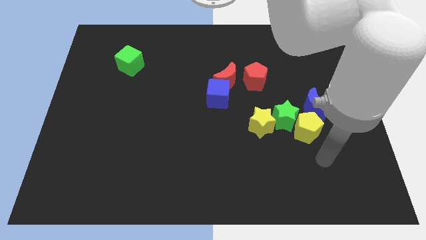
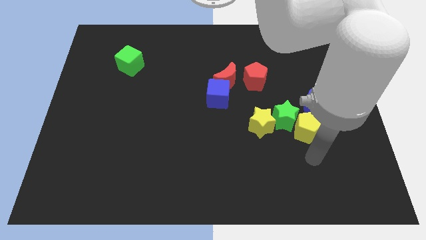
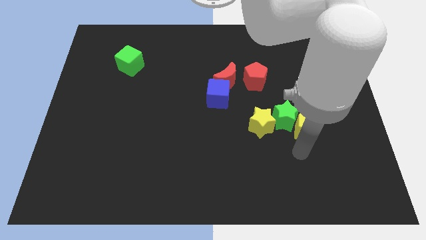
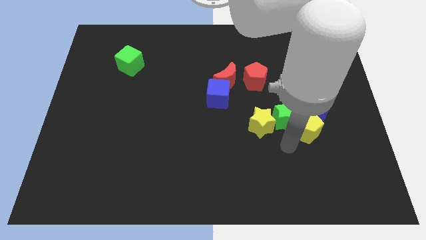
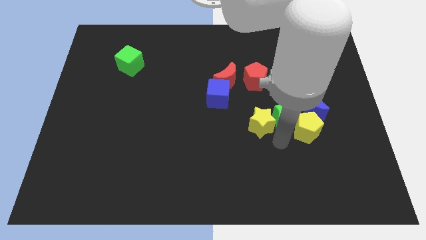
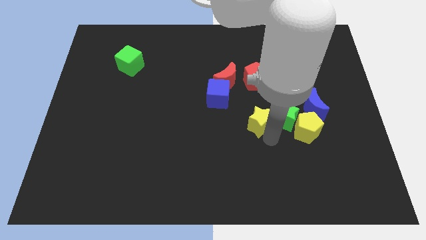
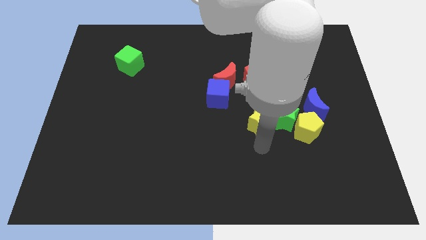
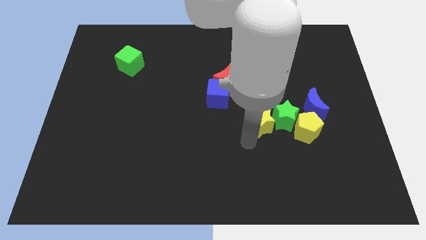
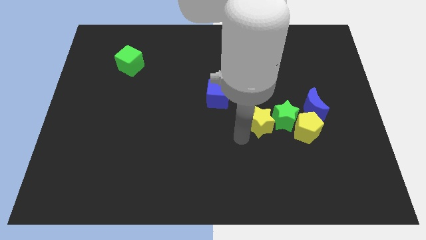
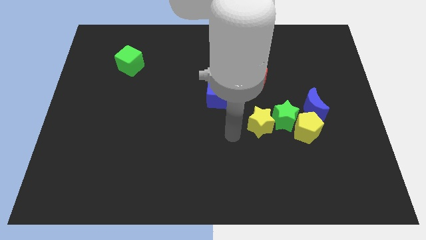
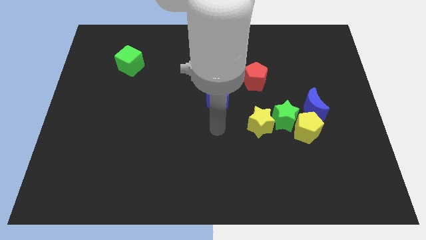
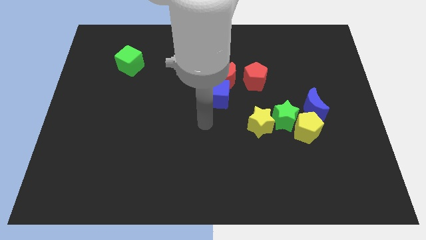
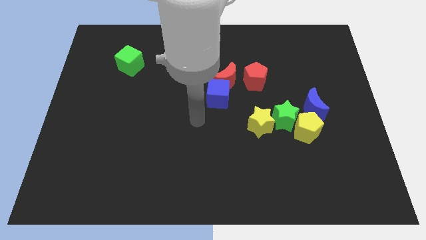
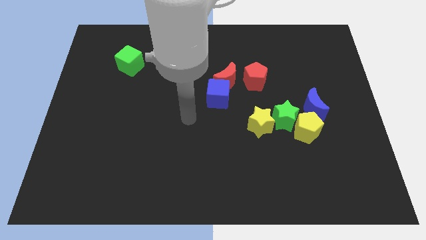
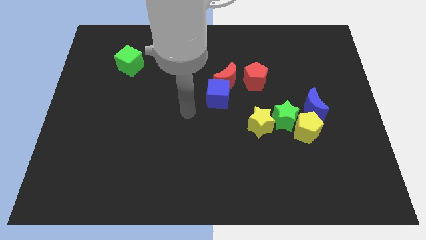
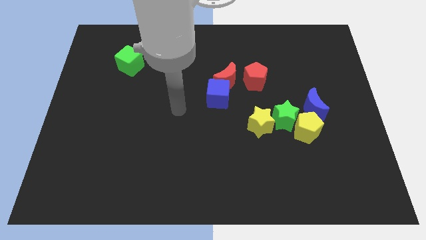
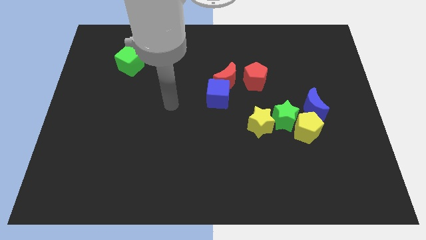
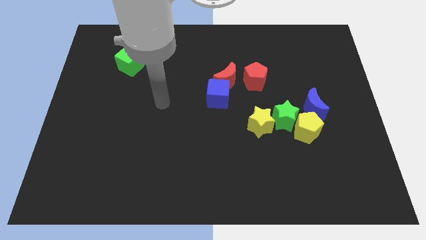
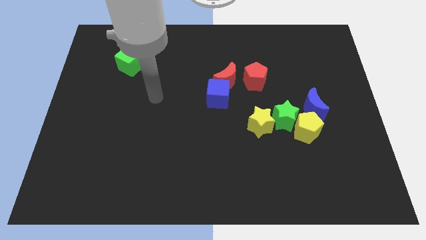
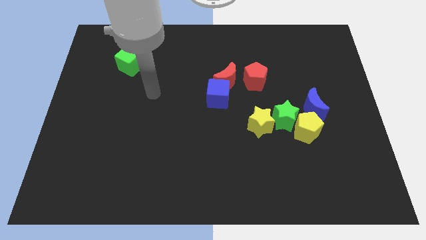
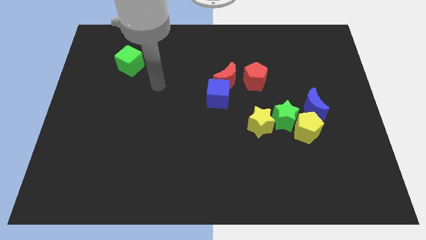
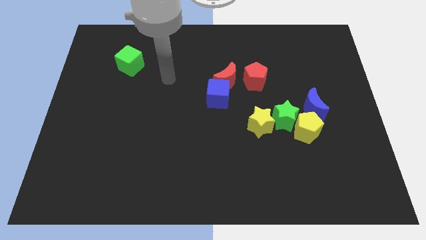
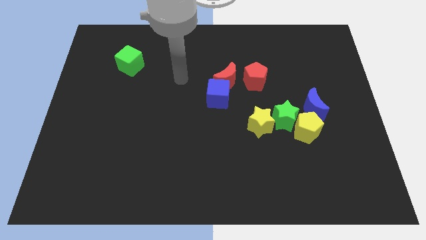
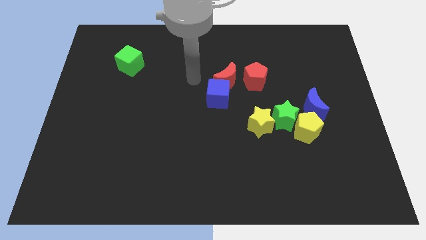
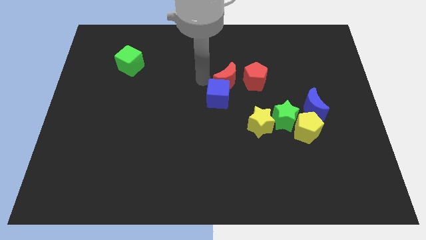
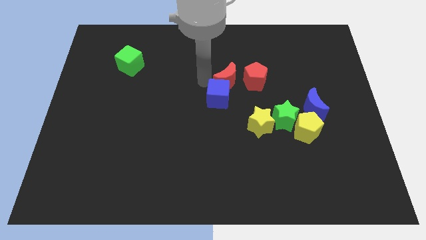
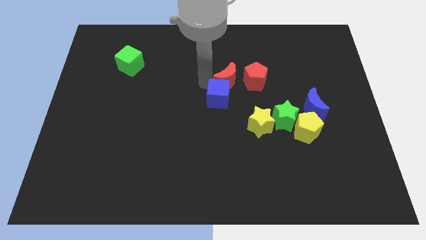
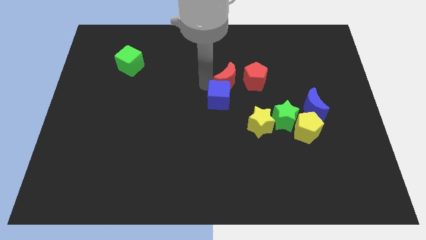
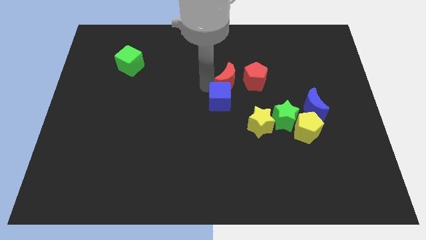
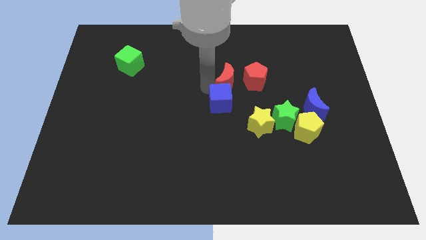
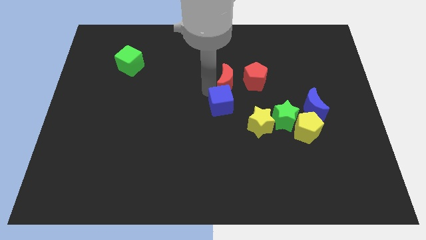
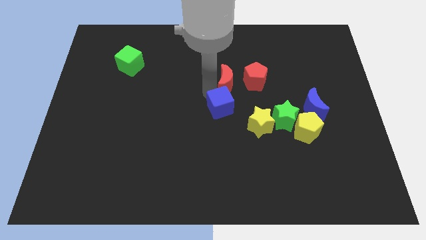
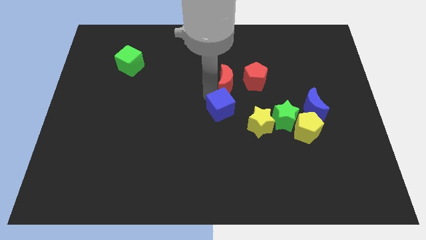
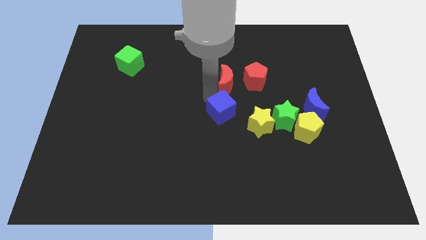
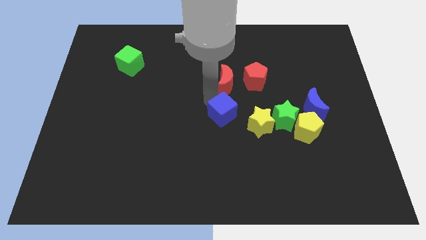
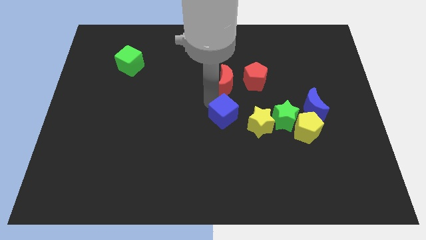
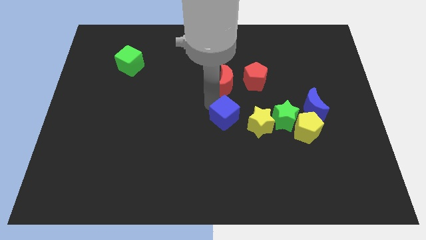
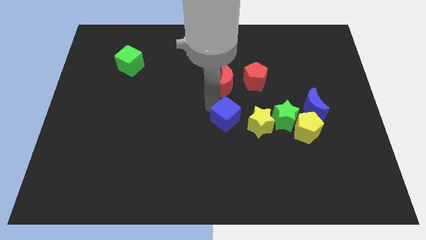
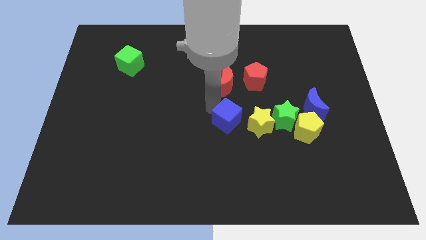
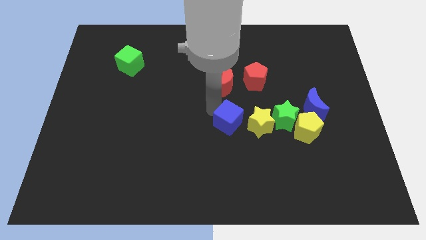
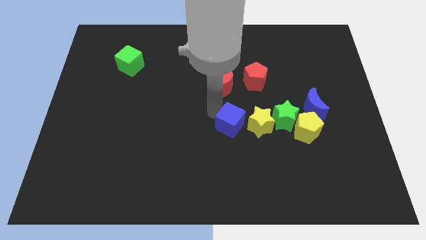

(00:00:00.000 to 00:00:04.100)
move the blue cube downwards and to the right a little bit

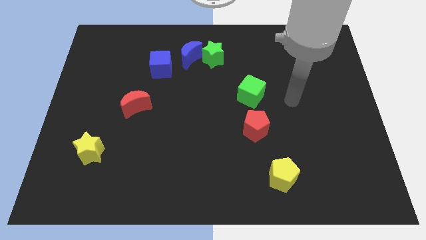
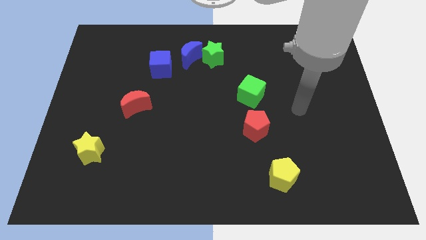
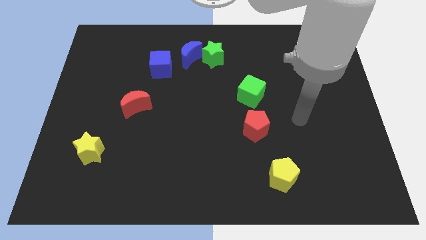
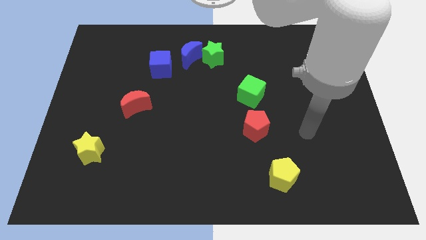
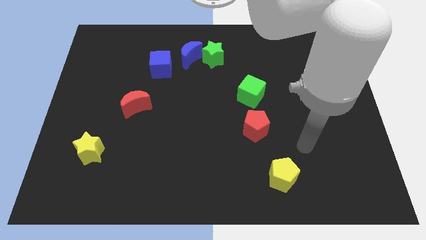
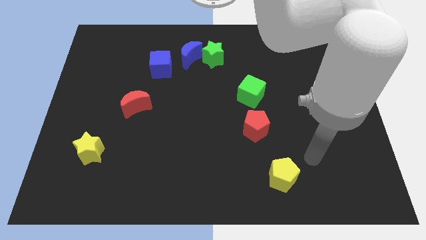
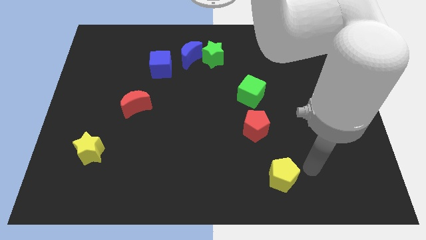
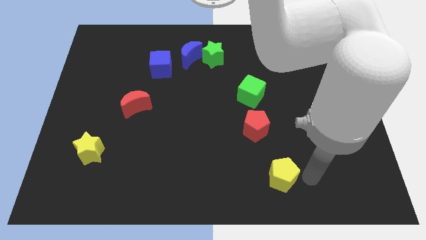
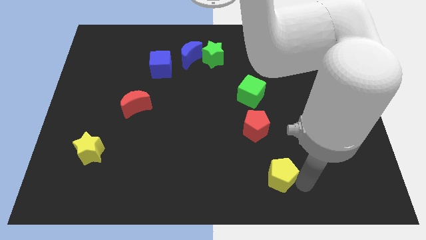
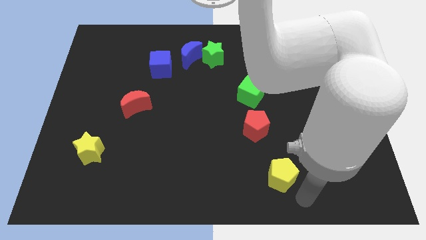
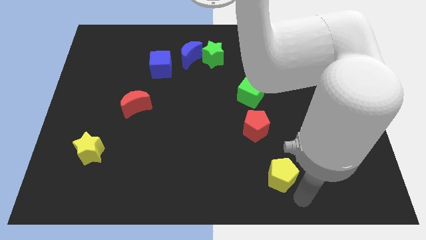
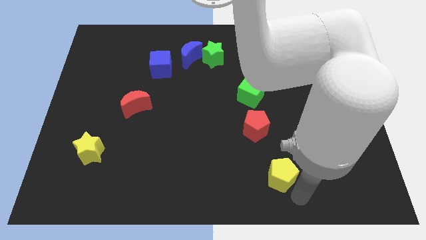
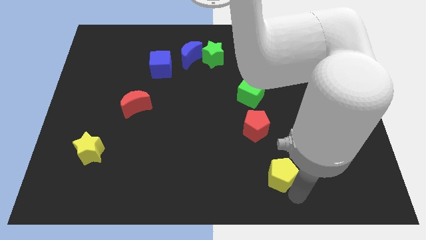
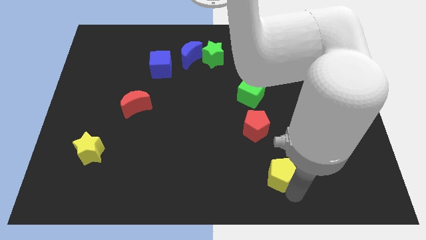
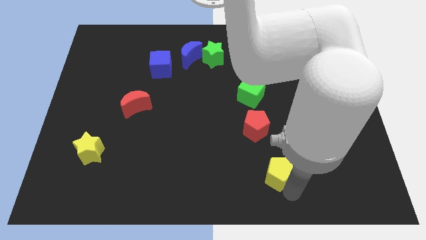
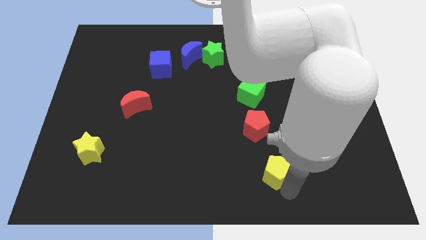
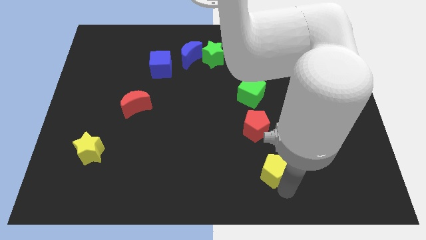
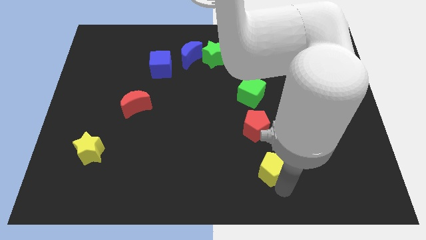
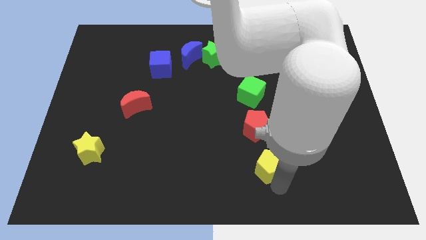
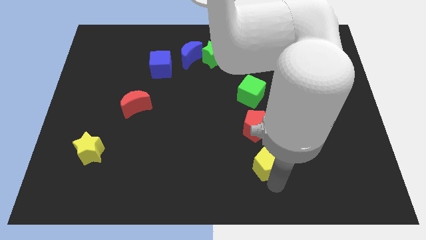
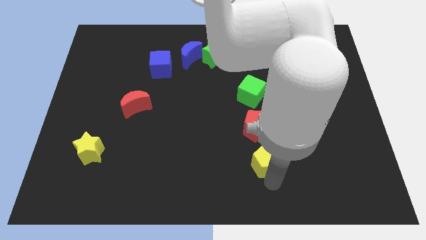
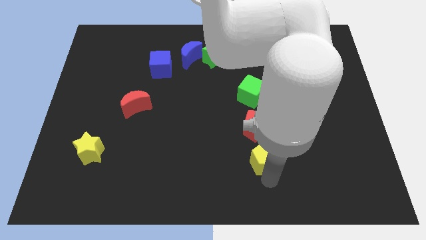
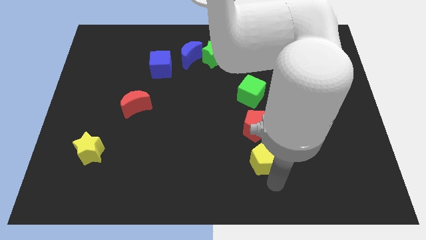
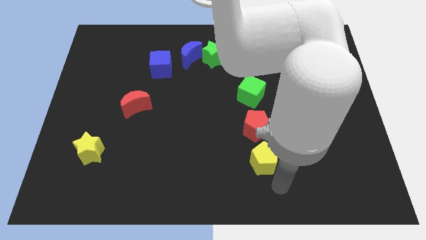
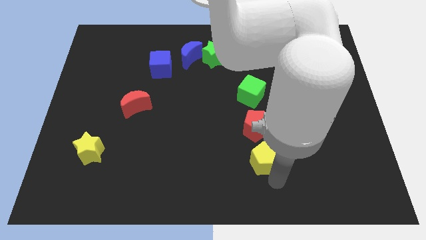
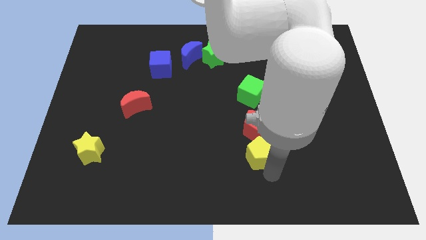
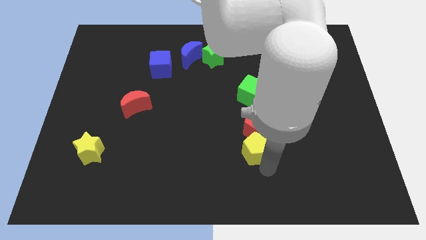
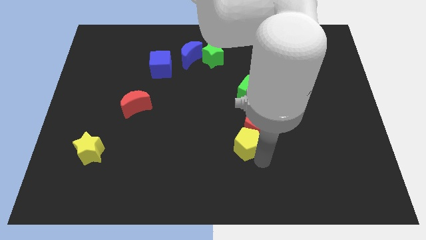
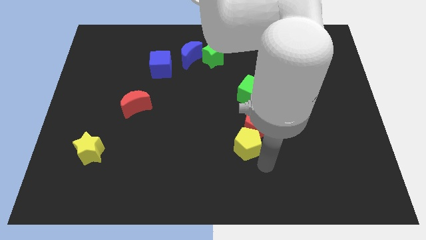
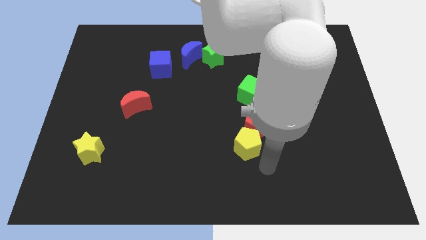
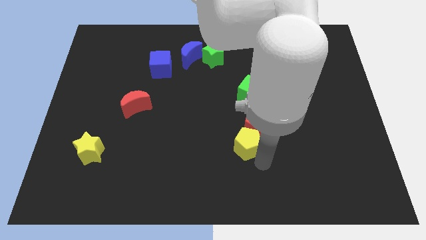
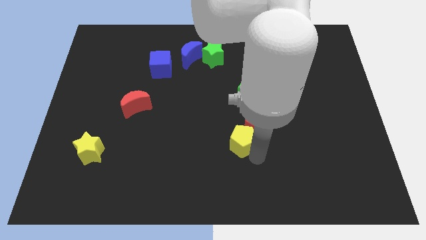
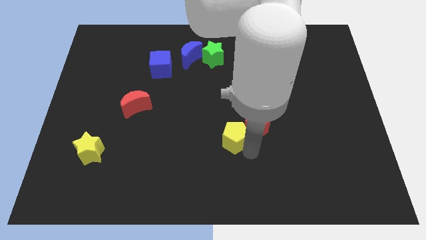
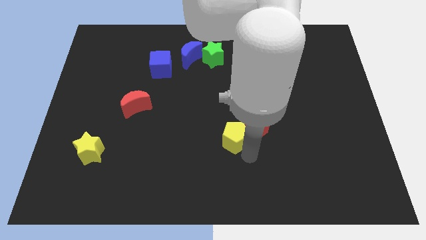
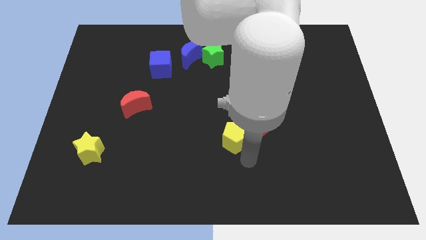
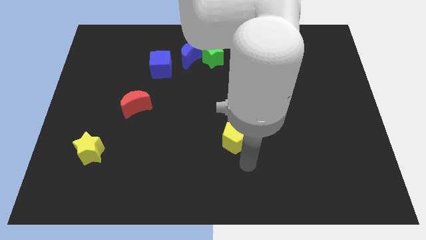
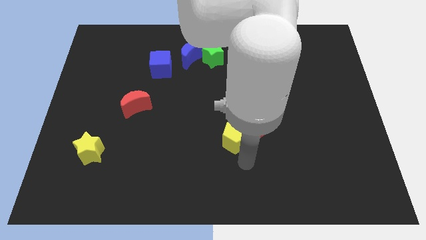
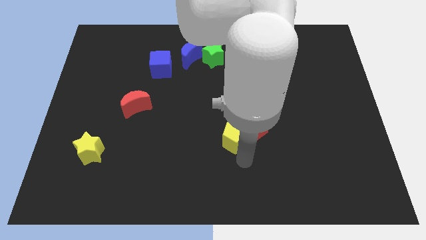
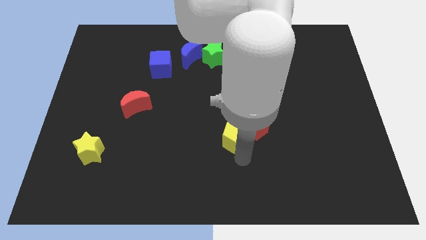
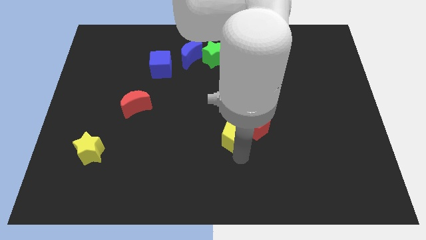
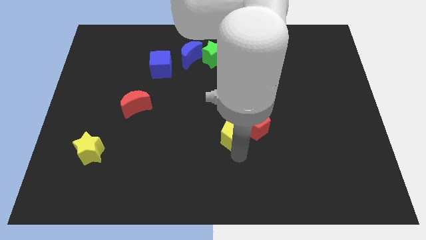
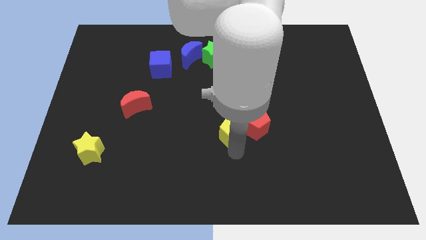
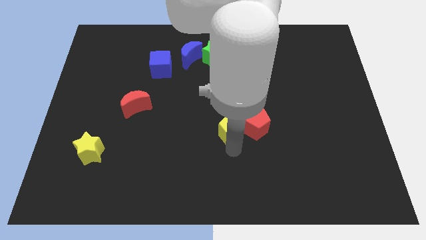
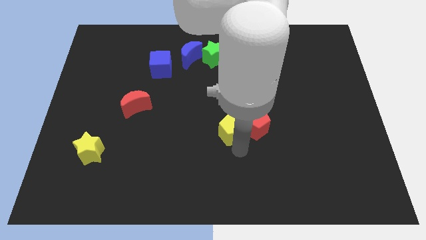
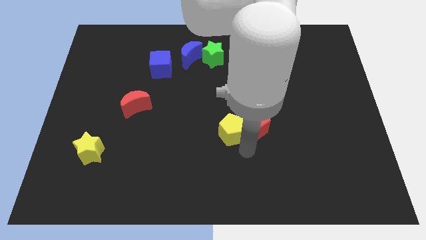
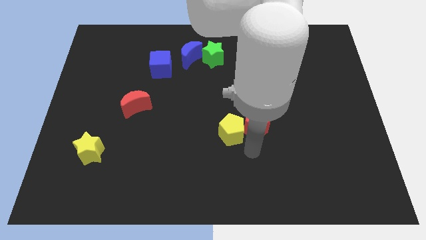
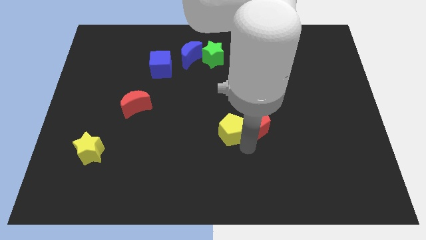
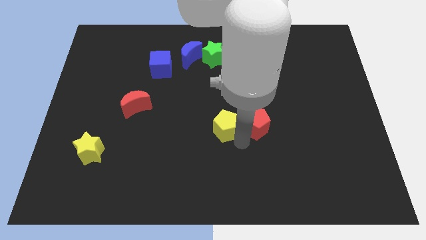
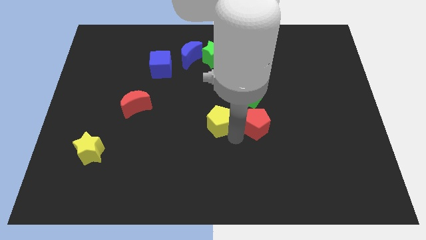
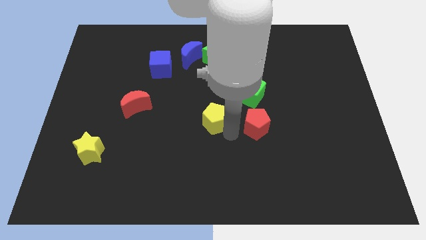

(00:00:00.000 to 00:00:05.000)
push the yellow pentagon up and left
